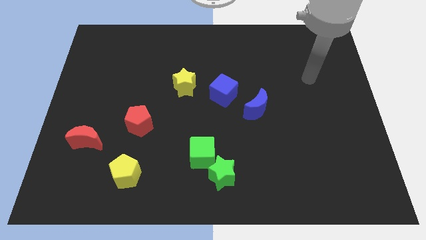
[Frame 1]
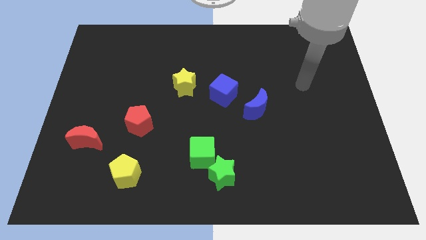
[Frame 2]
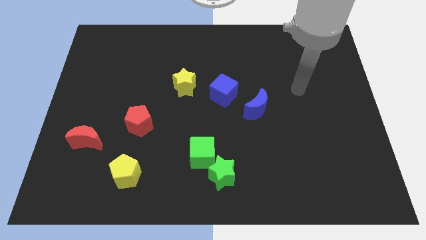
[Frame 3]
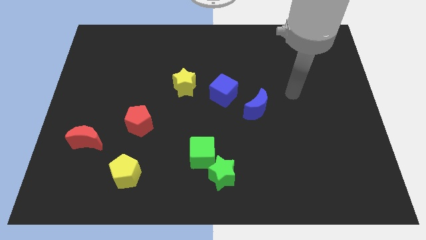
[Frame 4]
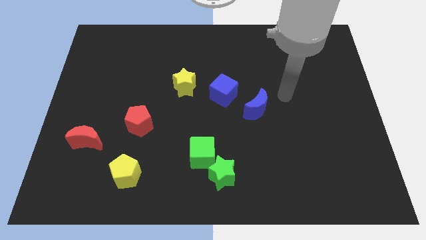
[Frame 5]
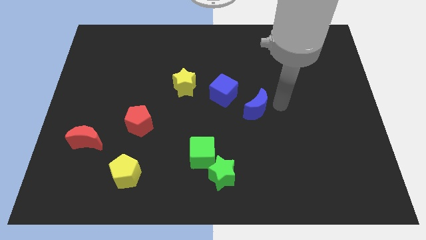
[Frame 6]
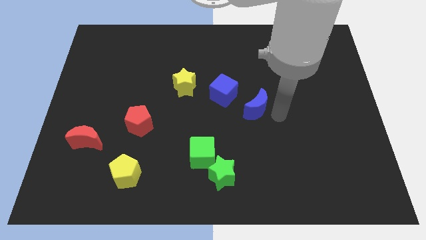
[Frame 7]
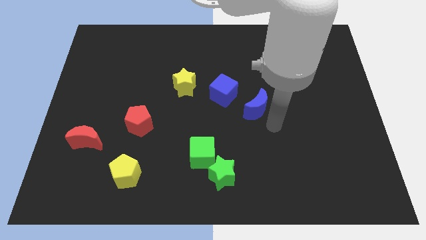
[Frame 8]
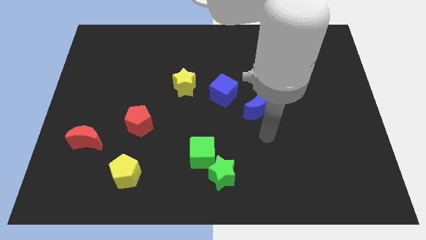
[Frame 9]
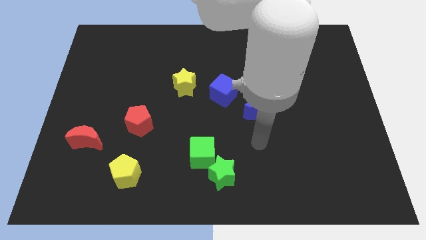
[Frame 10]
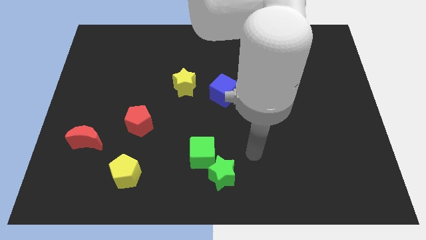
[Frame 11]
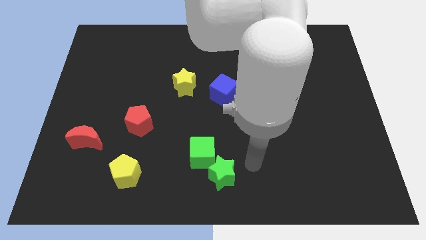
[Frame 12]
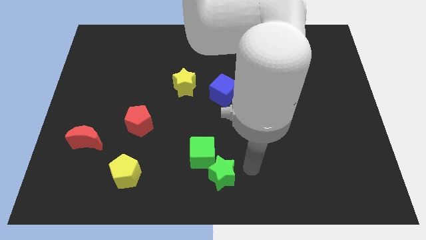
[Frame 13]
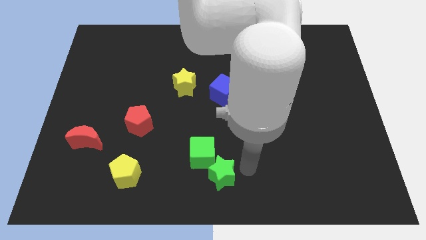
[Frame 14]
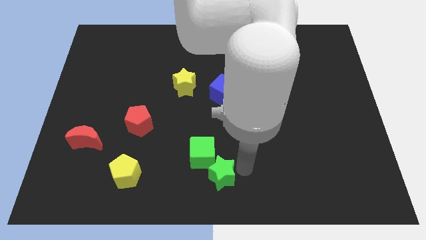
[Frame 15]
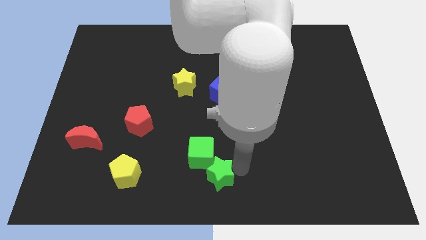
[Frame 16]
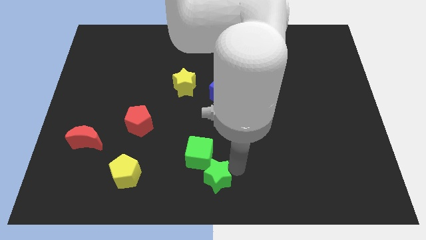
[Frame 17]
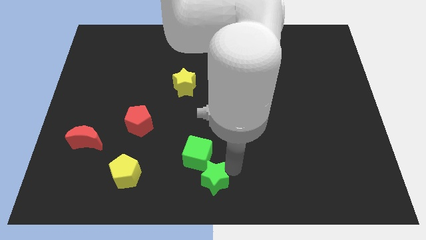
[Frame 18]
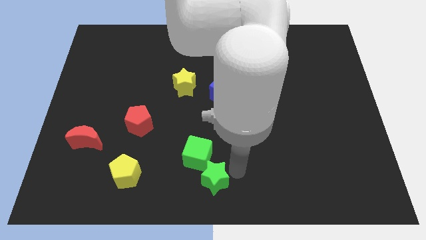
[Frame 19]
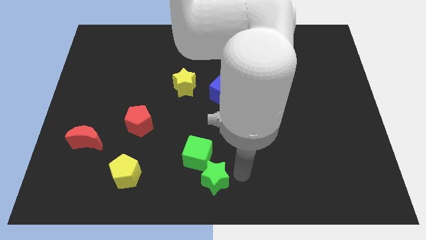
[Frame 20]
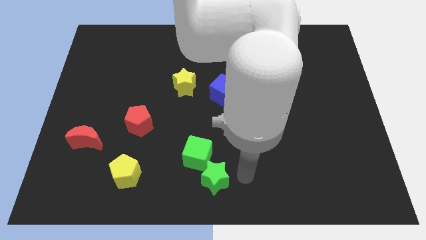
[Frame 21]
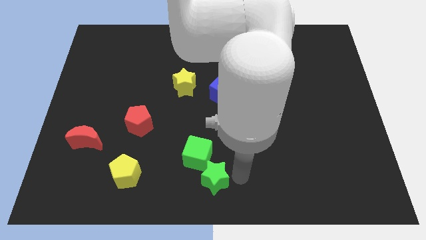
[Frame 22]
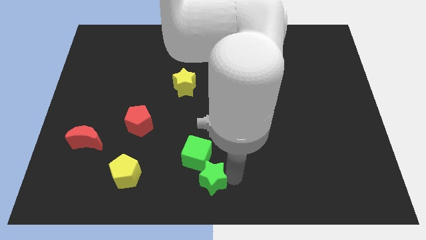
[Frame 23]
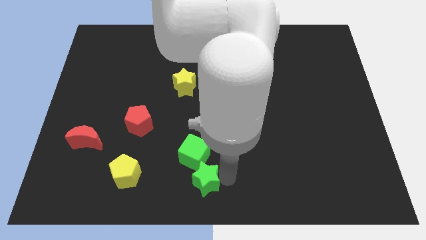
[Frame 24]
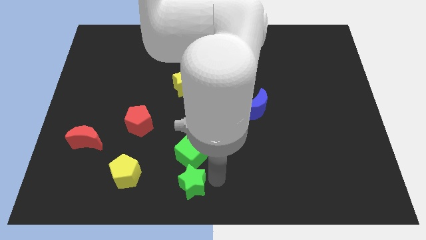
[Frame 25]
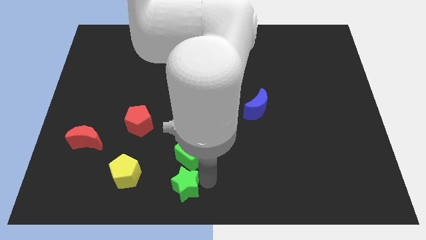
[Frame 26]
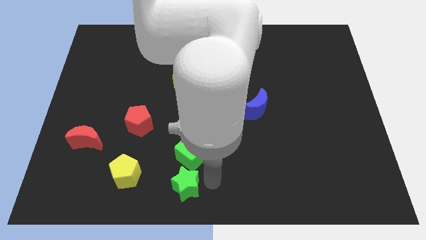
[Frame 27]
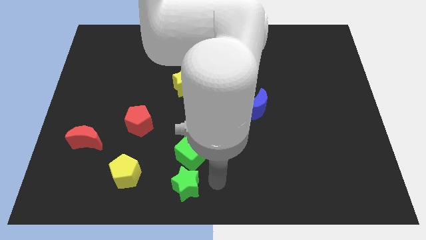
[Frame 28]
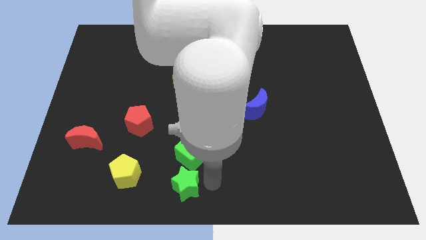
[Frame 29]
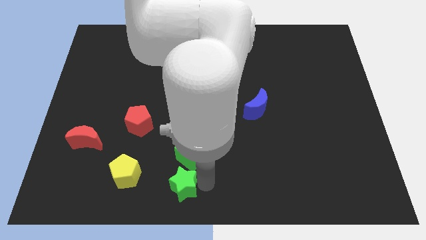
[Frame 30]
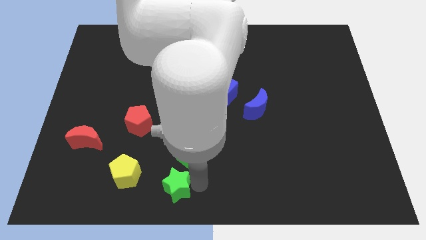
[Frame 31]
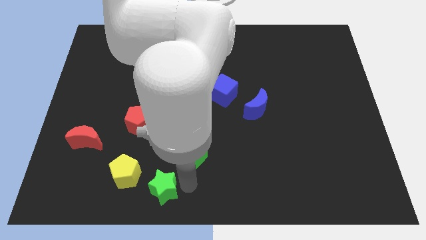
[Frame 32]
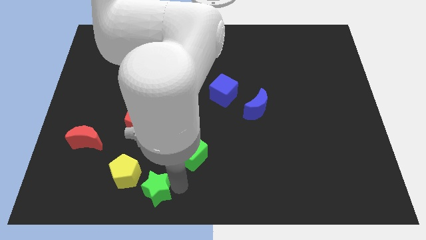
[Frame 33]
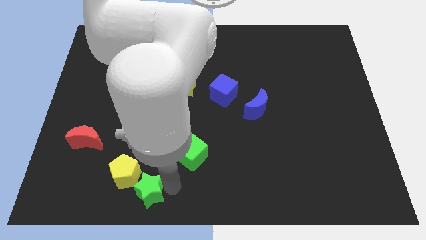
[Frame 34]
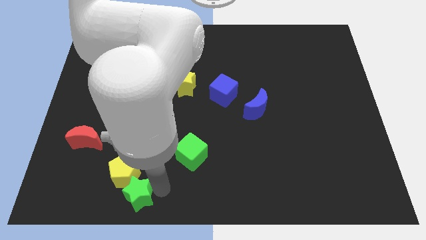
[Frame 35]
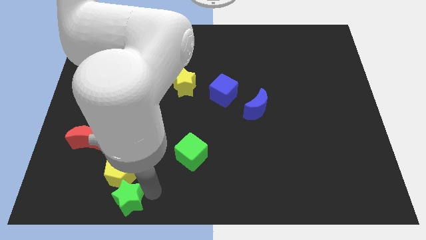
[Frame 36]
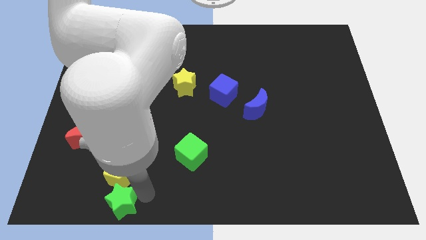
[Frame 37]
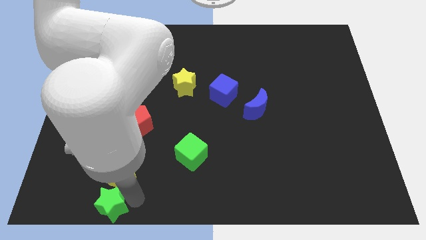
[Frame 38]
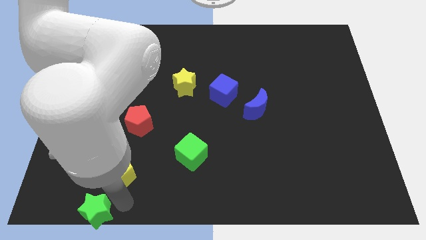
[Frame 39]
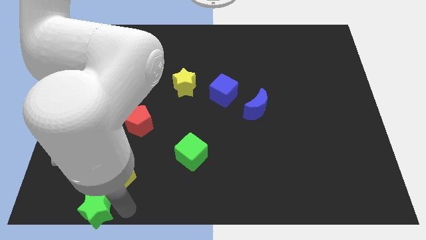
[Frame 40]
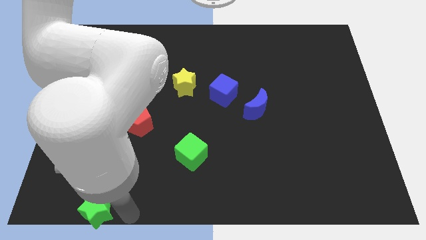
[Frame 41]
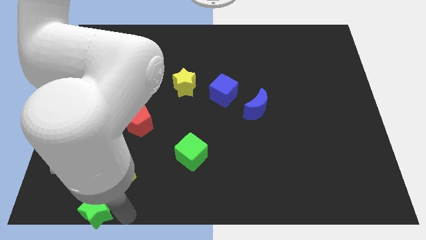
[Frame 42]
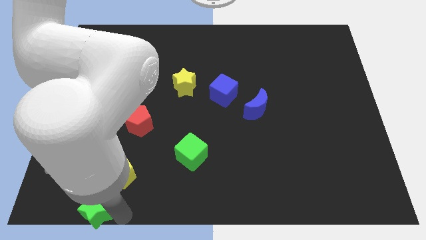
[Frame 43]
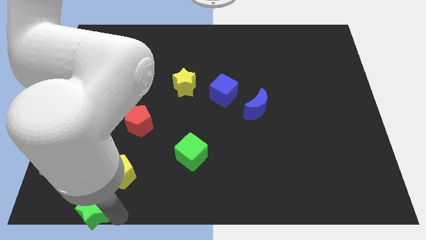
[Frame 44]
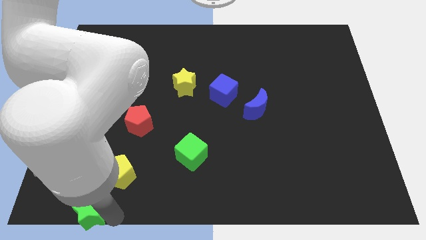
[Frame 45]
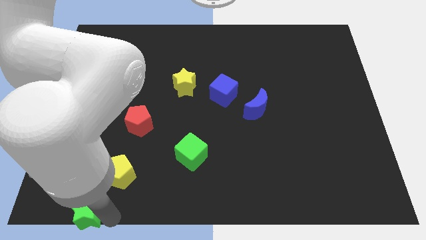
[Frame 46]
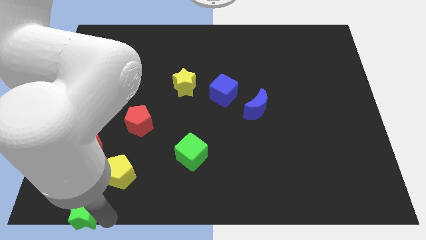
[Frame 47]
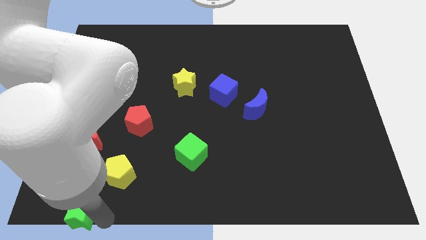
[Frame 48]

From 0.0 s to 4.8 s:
move the green star to the bottom left

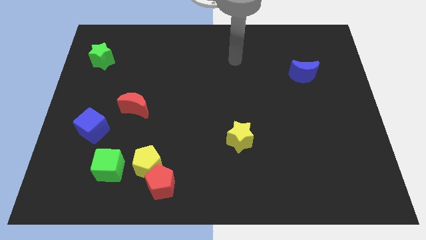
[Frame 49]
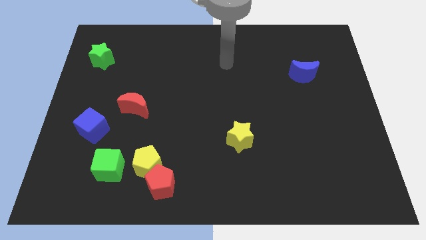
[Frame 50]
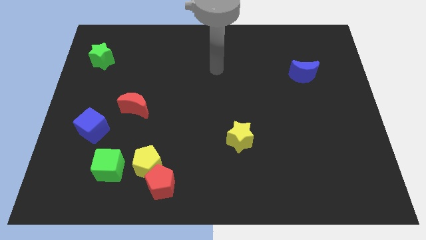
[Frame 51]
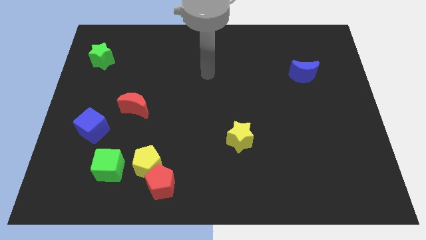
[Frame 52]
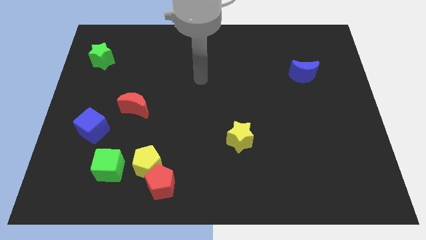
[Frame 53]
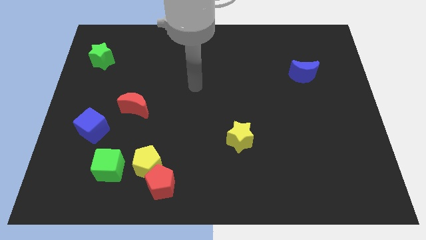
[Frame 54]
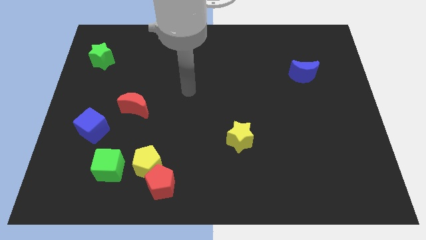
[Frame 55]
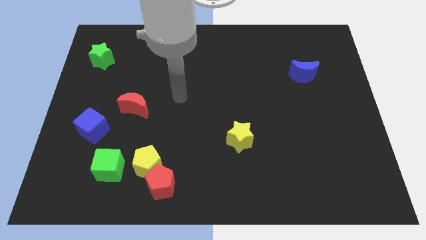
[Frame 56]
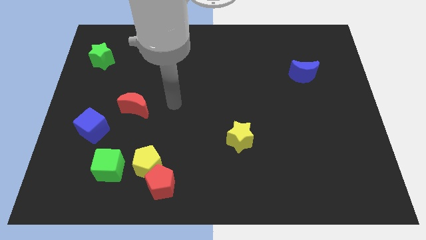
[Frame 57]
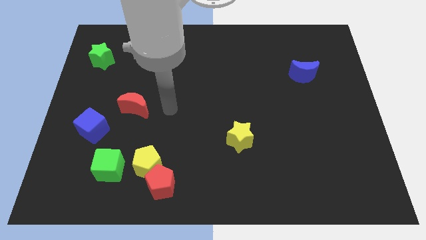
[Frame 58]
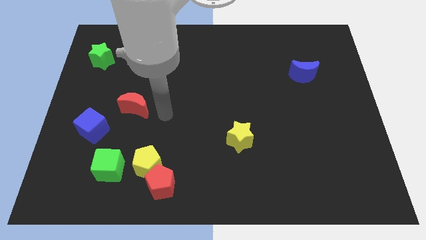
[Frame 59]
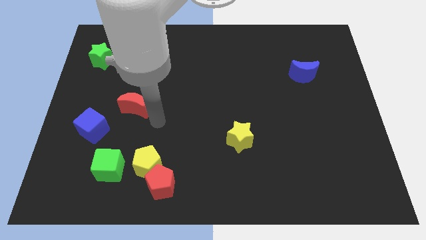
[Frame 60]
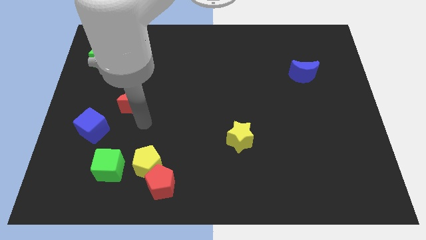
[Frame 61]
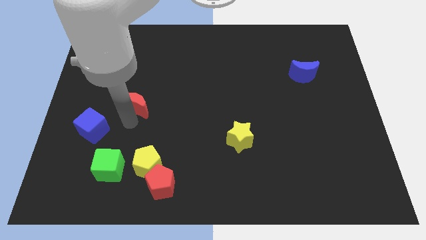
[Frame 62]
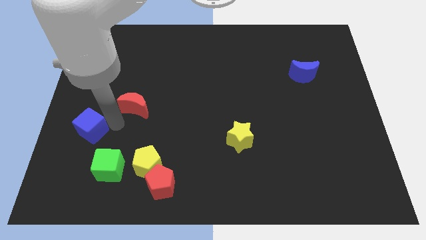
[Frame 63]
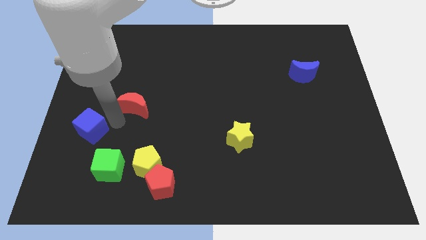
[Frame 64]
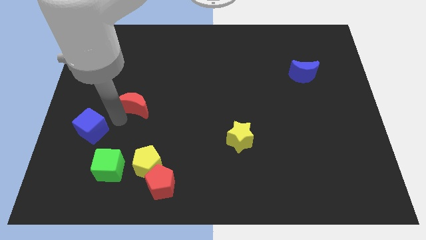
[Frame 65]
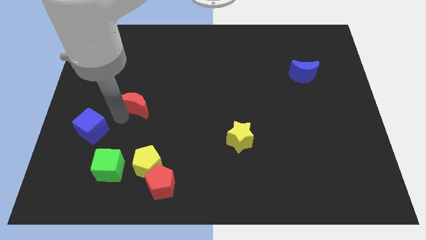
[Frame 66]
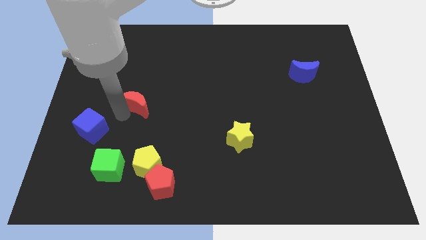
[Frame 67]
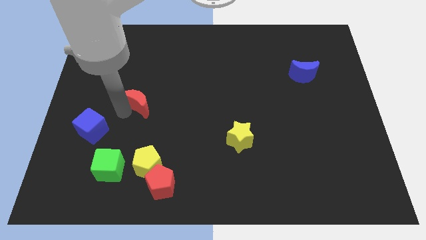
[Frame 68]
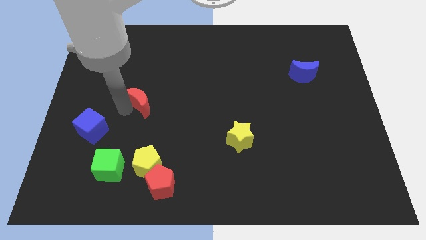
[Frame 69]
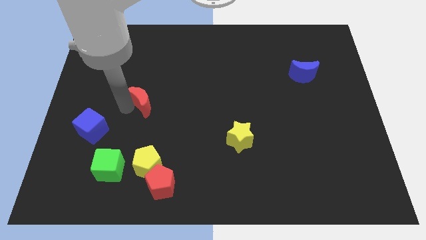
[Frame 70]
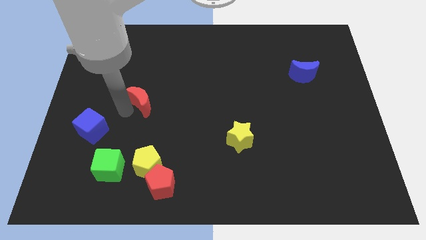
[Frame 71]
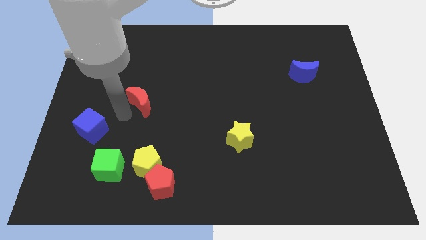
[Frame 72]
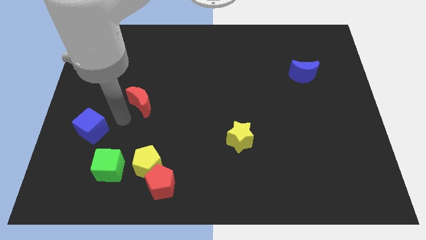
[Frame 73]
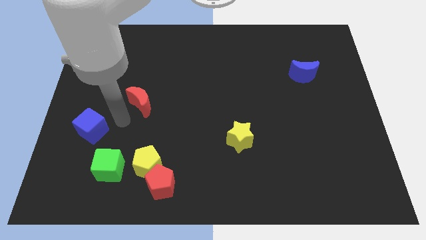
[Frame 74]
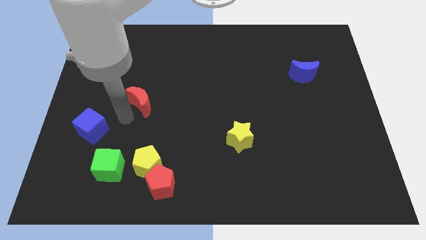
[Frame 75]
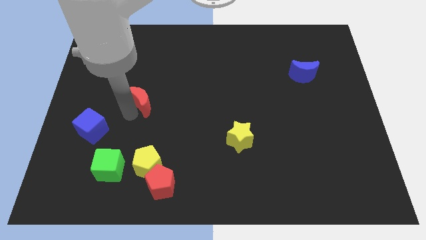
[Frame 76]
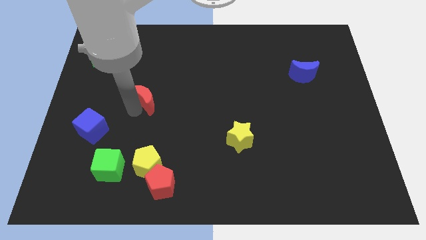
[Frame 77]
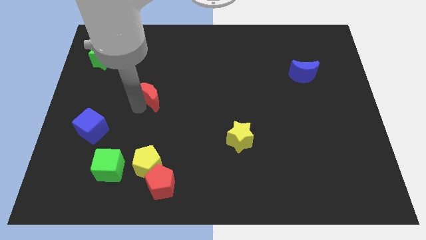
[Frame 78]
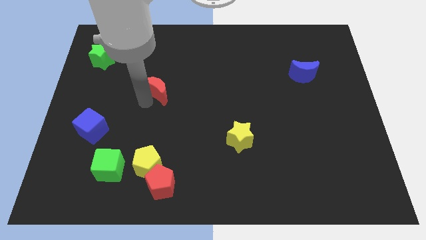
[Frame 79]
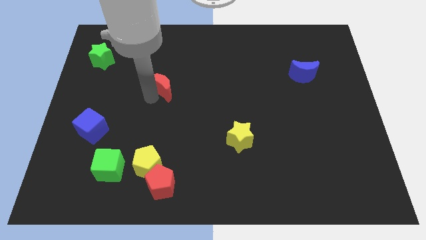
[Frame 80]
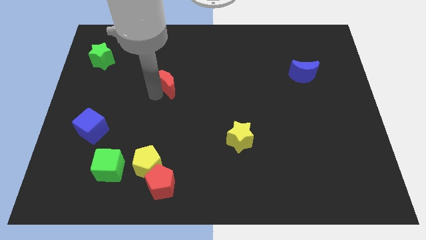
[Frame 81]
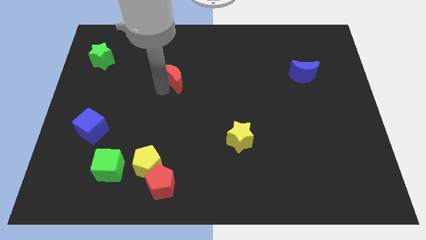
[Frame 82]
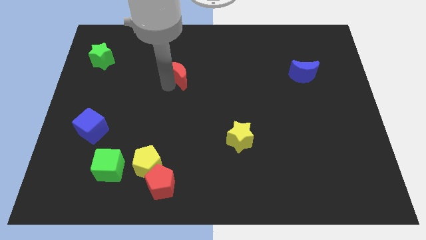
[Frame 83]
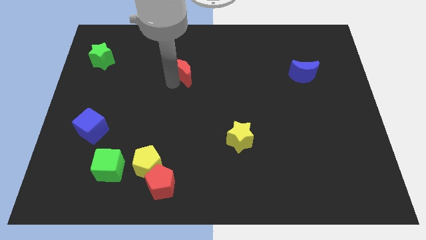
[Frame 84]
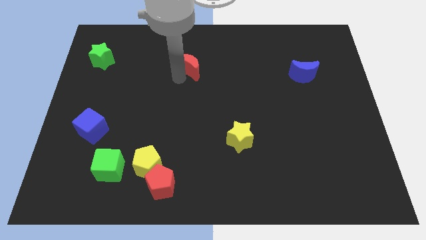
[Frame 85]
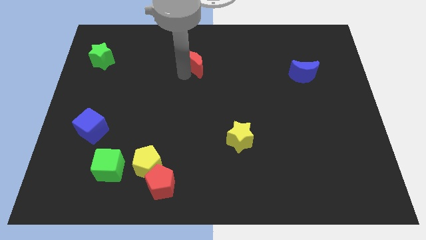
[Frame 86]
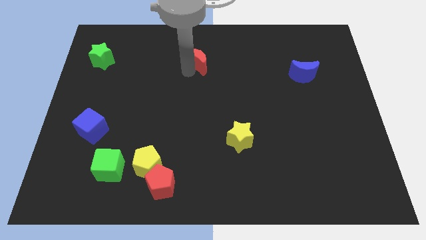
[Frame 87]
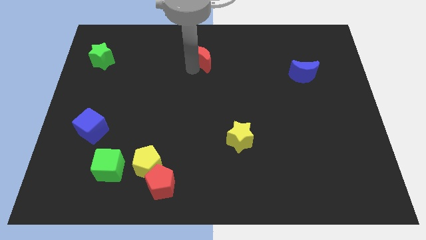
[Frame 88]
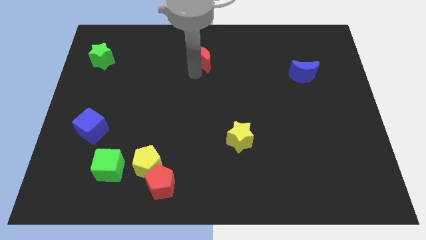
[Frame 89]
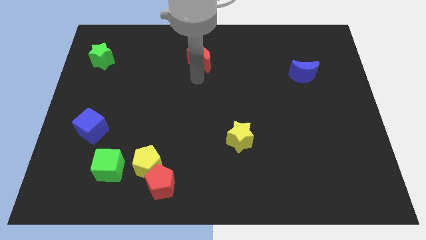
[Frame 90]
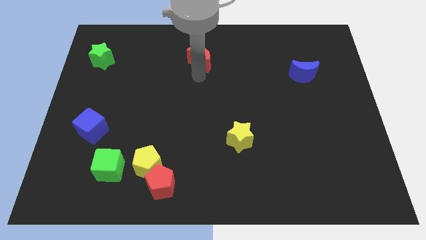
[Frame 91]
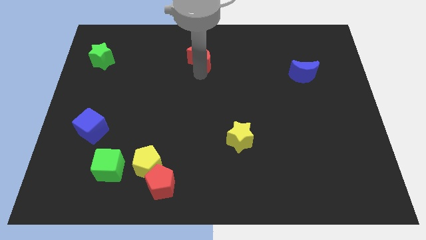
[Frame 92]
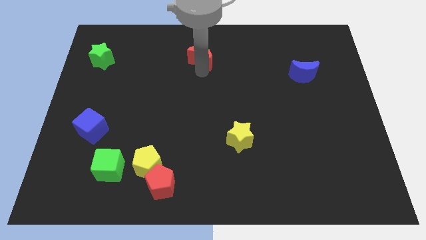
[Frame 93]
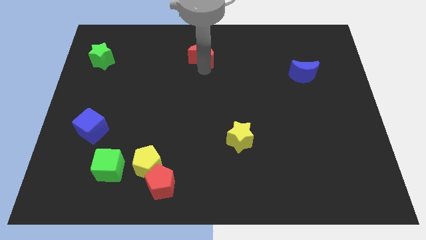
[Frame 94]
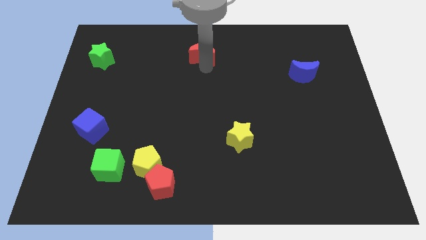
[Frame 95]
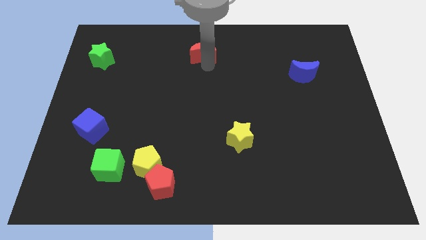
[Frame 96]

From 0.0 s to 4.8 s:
move the red moon to the top
